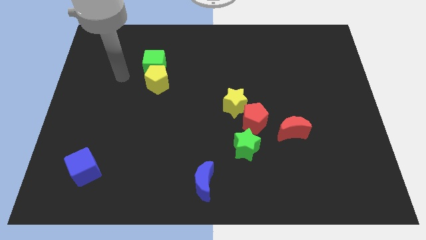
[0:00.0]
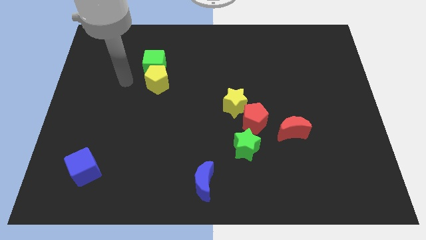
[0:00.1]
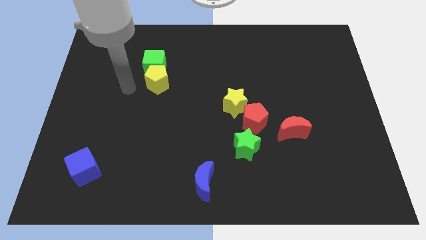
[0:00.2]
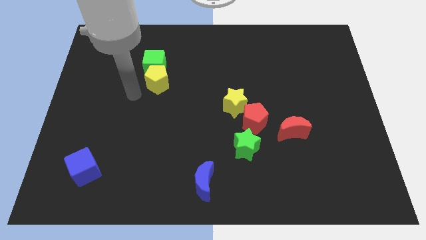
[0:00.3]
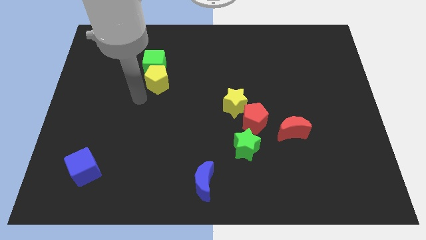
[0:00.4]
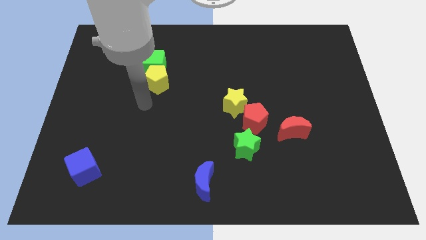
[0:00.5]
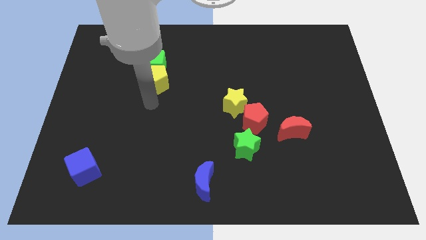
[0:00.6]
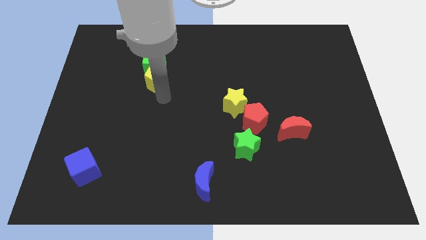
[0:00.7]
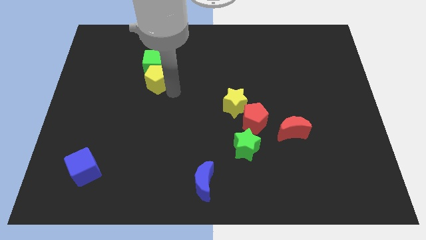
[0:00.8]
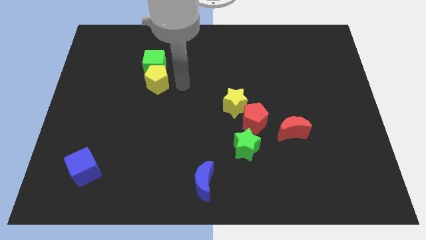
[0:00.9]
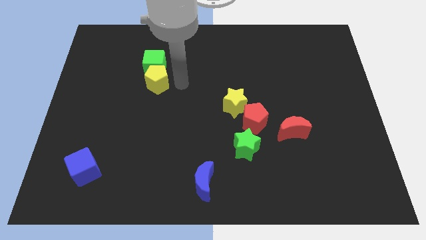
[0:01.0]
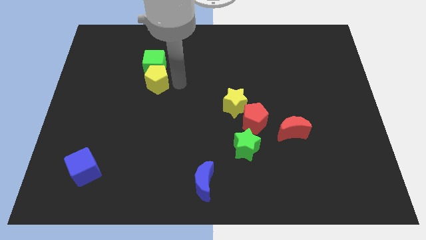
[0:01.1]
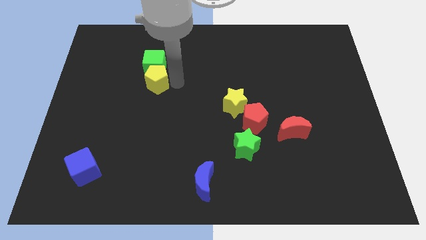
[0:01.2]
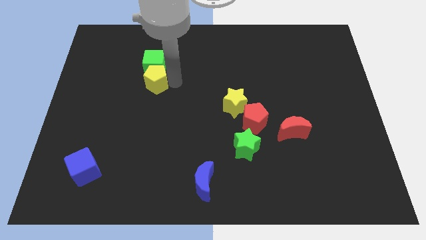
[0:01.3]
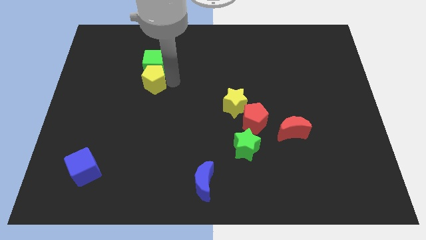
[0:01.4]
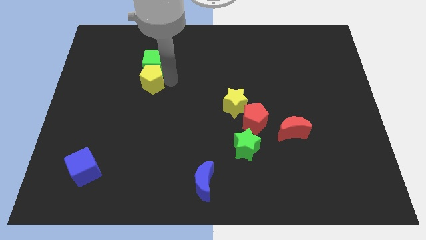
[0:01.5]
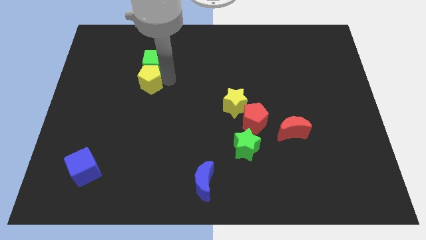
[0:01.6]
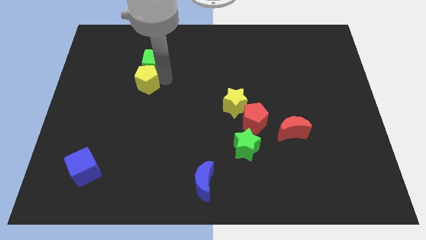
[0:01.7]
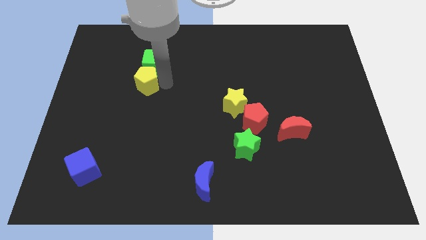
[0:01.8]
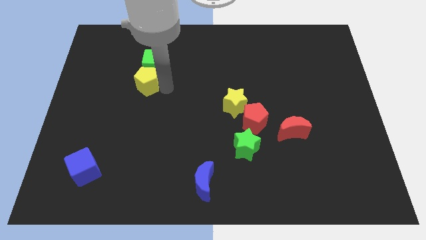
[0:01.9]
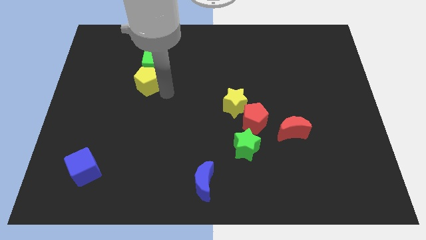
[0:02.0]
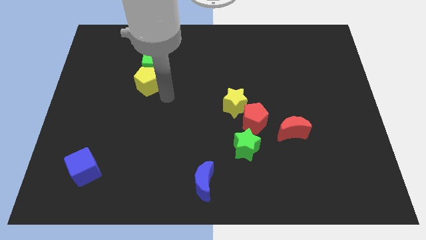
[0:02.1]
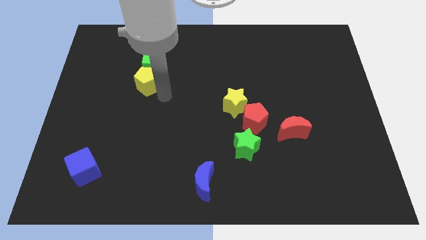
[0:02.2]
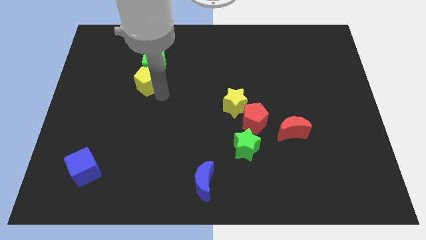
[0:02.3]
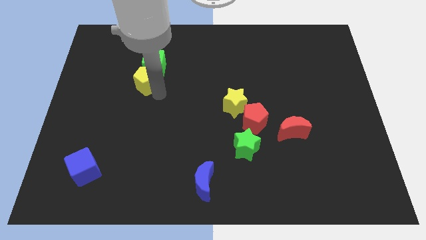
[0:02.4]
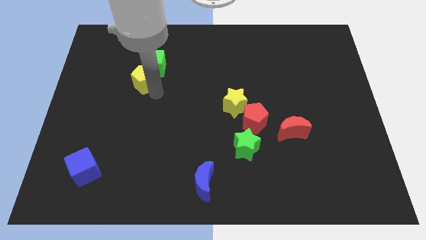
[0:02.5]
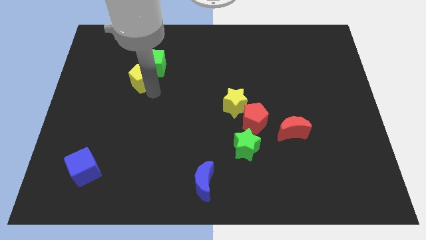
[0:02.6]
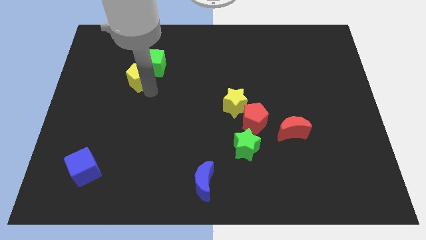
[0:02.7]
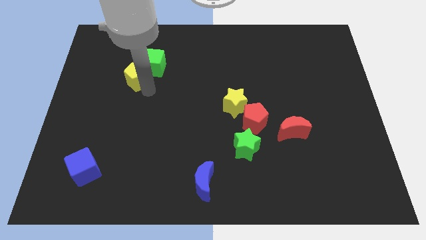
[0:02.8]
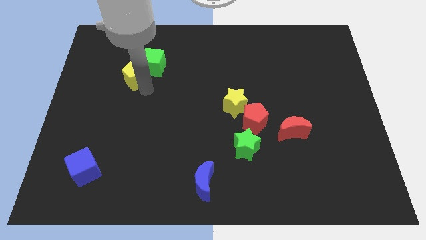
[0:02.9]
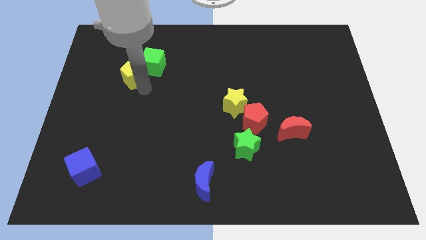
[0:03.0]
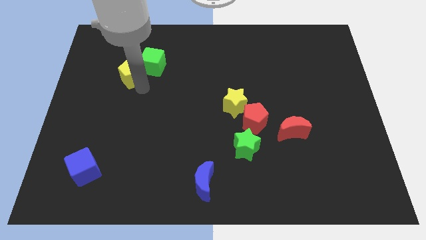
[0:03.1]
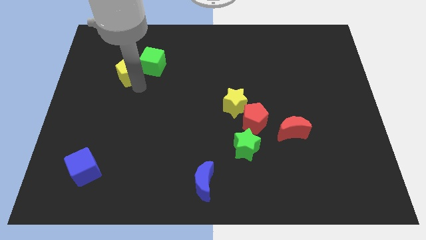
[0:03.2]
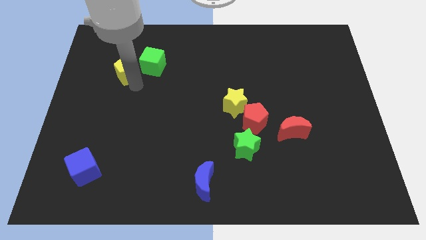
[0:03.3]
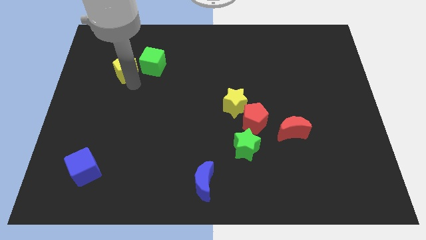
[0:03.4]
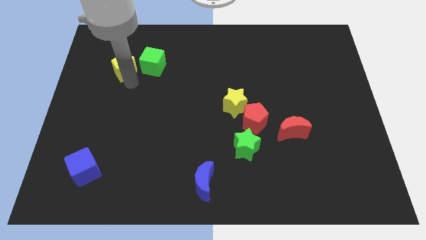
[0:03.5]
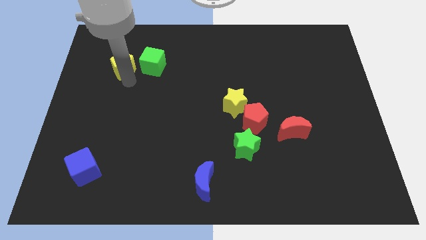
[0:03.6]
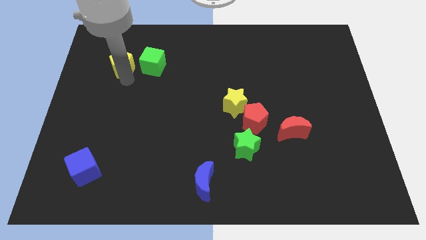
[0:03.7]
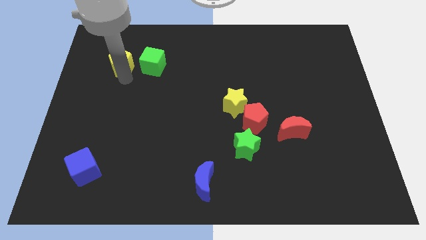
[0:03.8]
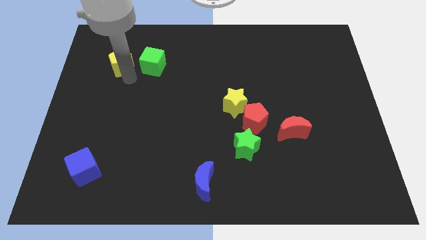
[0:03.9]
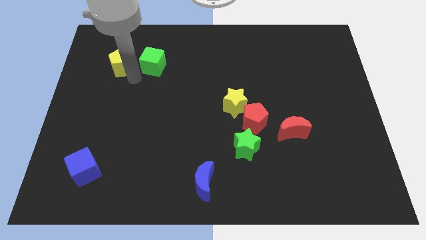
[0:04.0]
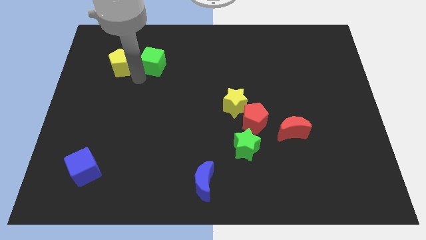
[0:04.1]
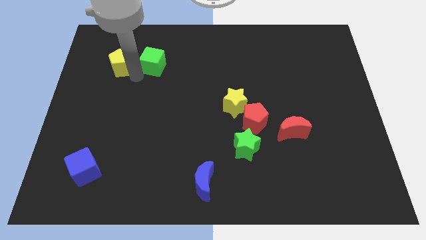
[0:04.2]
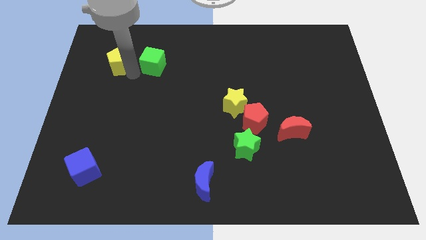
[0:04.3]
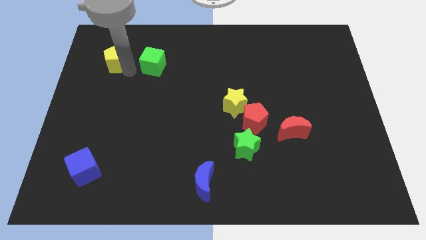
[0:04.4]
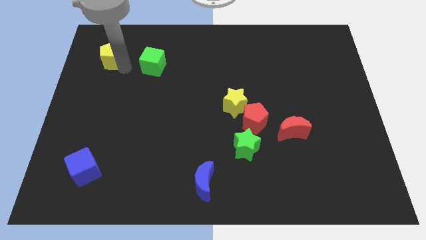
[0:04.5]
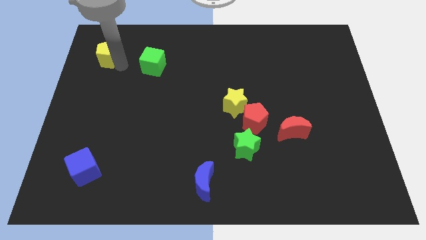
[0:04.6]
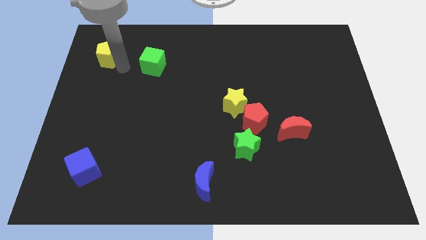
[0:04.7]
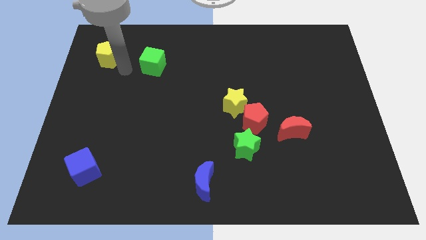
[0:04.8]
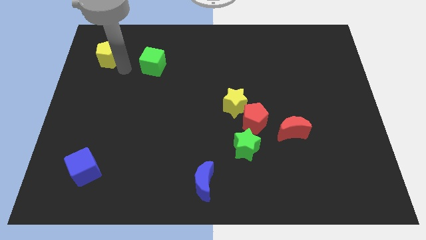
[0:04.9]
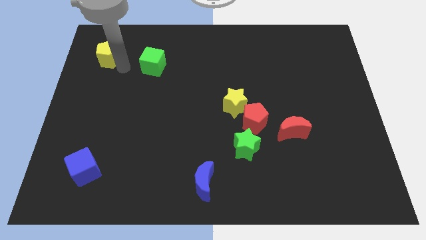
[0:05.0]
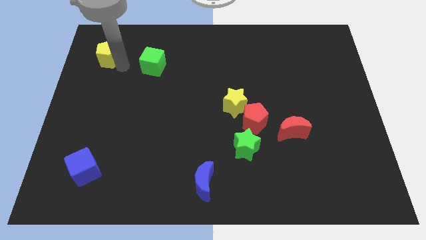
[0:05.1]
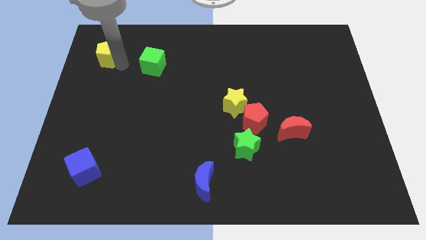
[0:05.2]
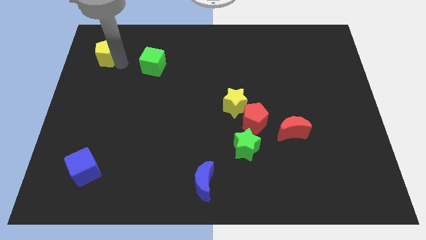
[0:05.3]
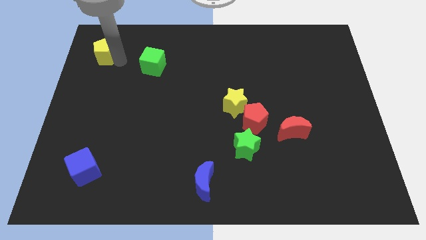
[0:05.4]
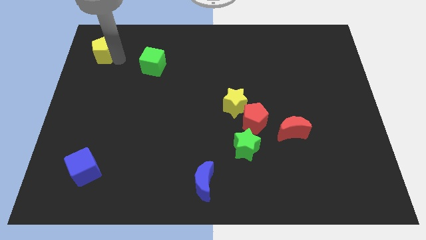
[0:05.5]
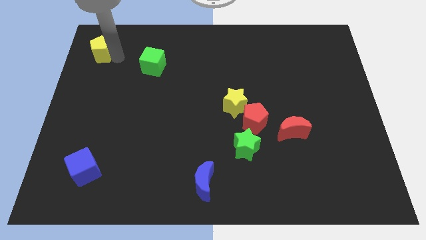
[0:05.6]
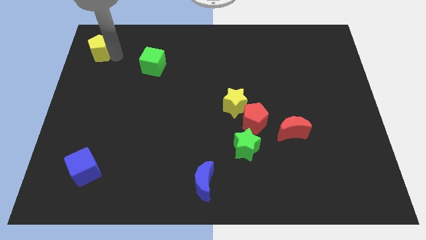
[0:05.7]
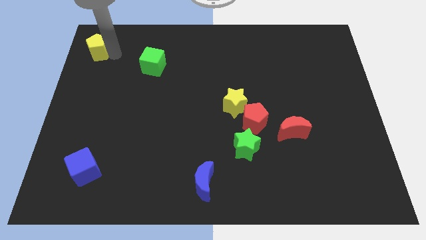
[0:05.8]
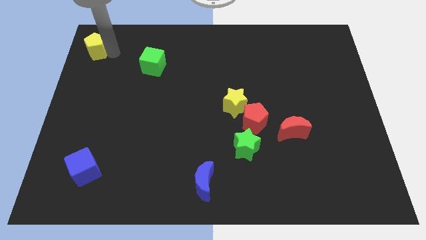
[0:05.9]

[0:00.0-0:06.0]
move the yellow pentagon to the top left of the board

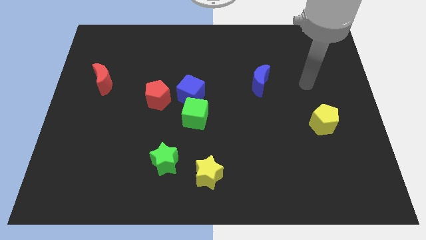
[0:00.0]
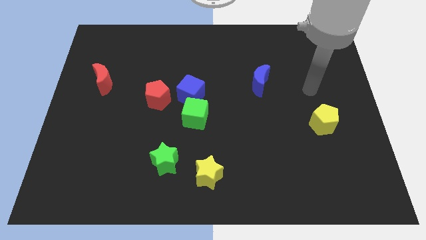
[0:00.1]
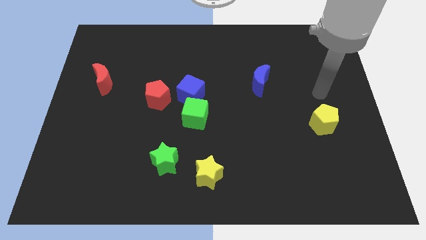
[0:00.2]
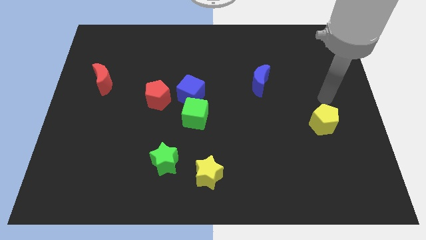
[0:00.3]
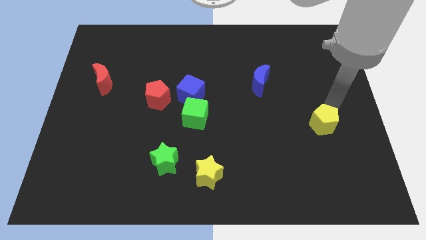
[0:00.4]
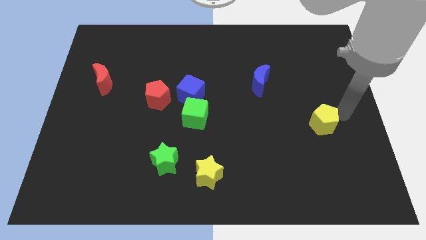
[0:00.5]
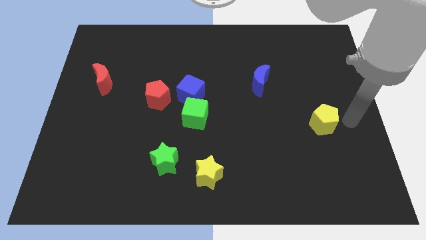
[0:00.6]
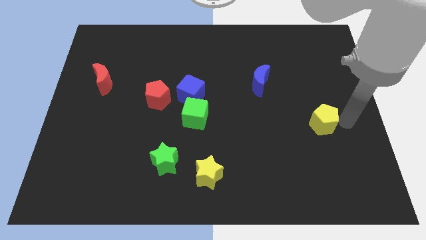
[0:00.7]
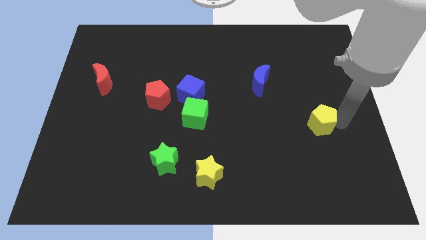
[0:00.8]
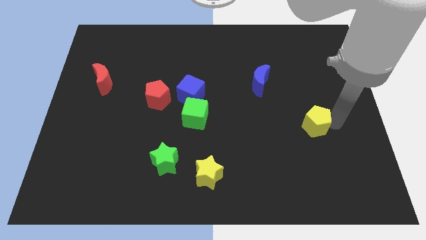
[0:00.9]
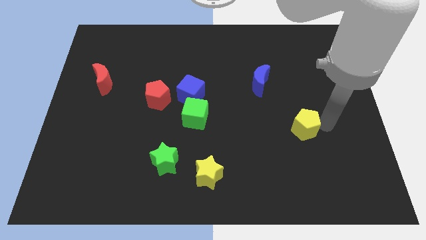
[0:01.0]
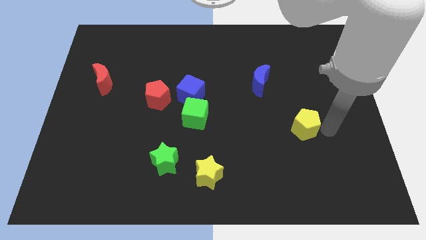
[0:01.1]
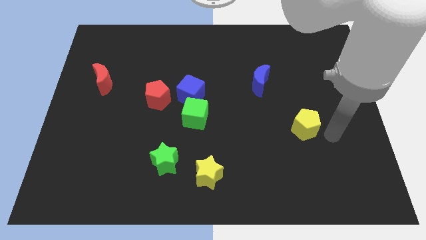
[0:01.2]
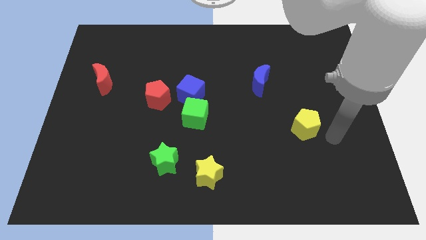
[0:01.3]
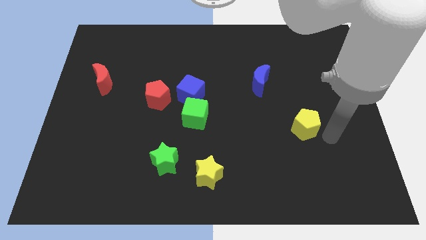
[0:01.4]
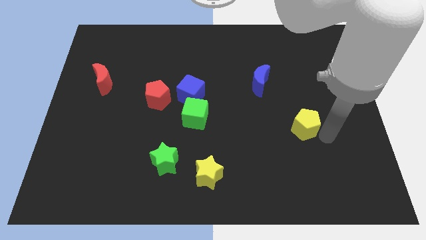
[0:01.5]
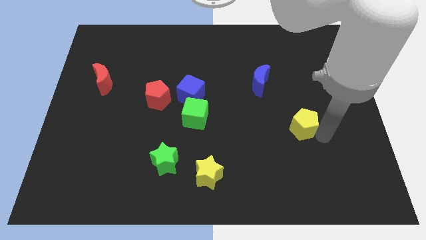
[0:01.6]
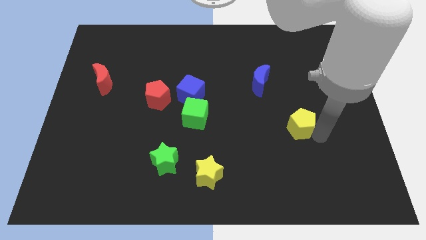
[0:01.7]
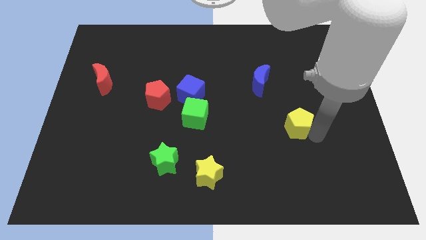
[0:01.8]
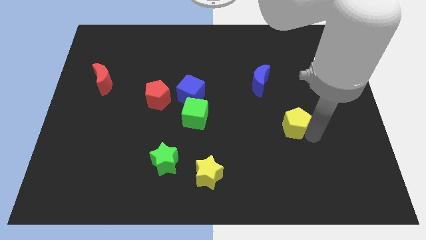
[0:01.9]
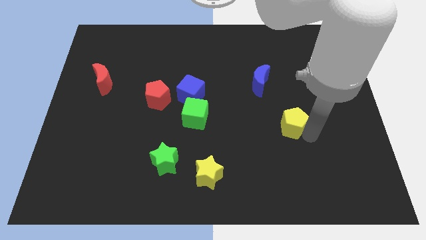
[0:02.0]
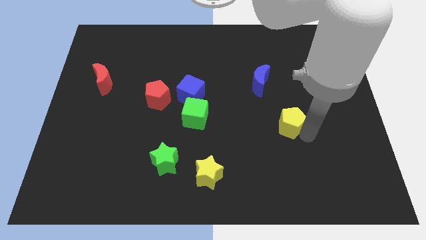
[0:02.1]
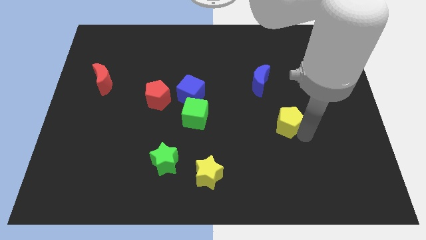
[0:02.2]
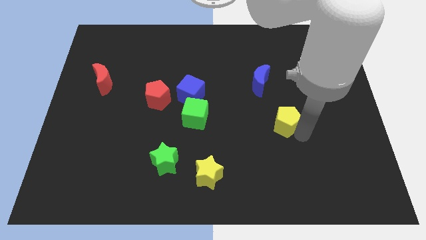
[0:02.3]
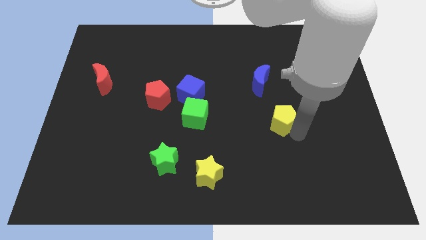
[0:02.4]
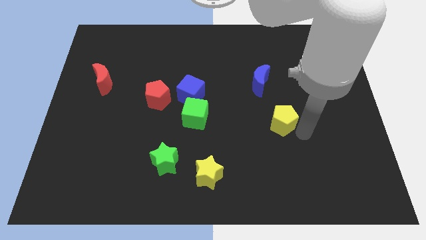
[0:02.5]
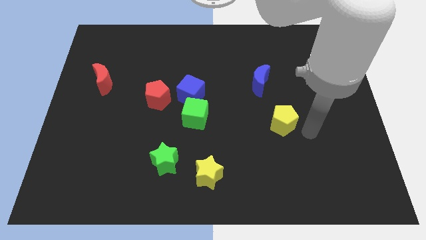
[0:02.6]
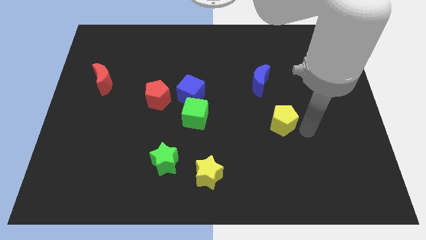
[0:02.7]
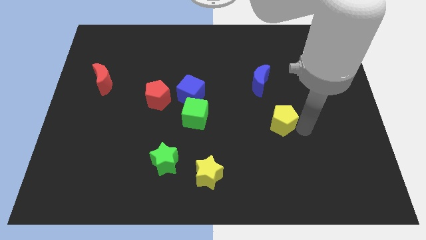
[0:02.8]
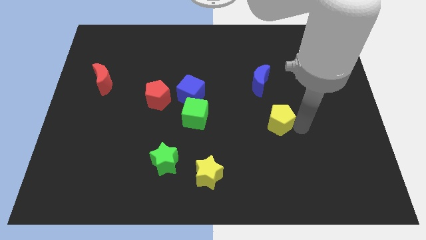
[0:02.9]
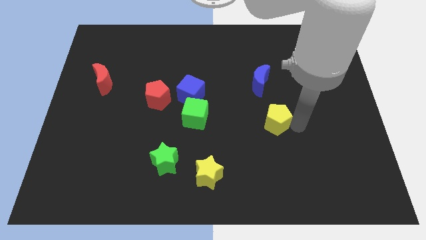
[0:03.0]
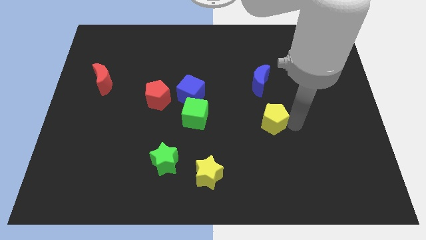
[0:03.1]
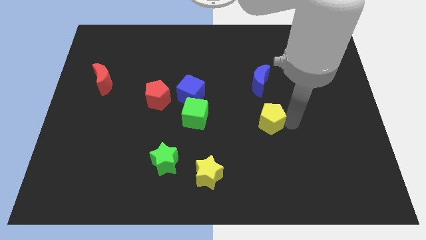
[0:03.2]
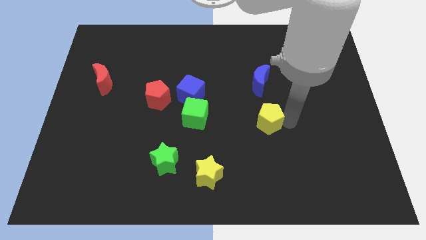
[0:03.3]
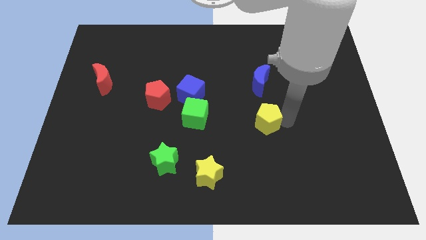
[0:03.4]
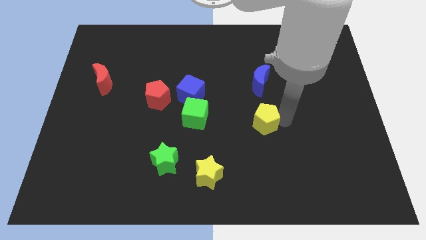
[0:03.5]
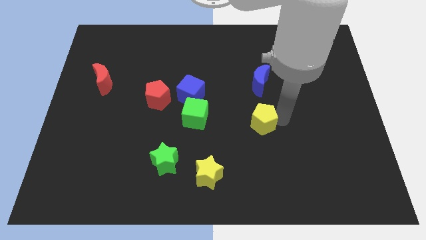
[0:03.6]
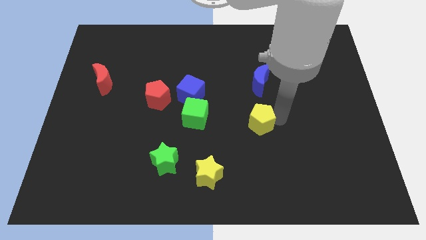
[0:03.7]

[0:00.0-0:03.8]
put the yellow pentagon to the center of the board
